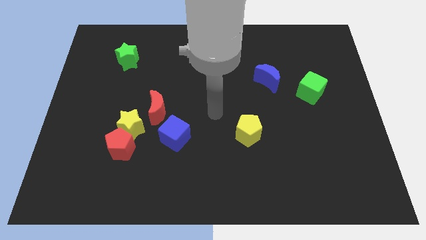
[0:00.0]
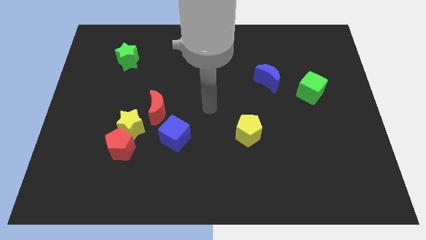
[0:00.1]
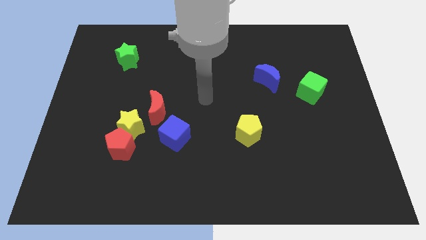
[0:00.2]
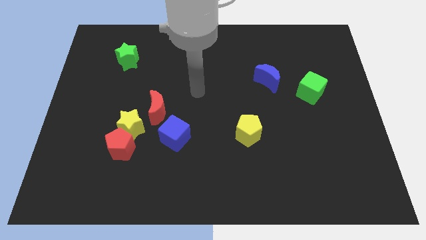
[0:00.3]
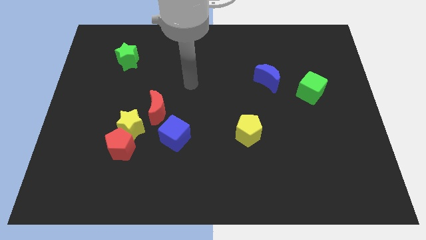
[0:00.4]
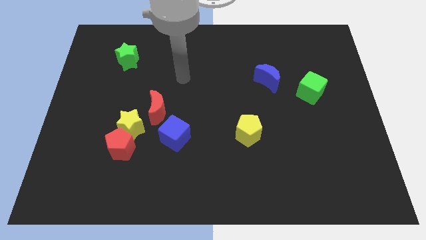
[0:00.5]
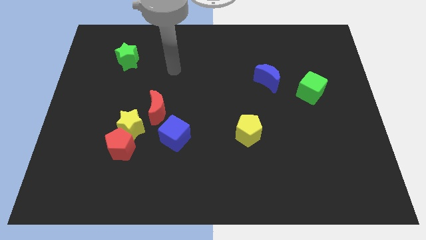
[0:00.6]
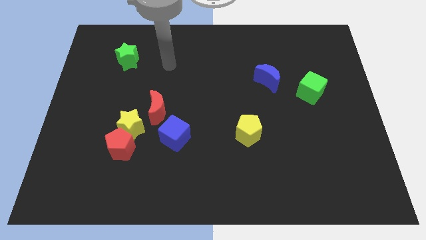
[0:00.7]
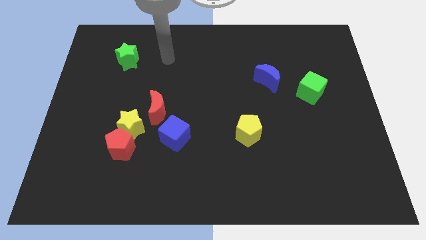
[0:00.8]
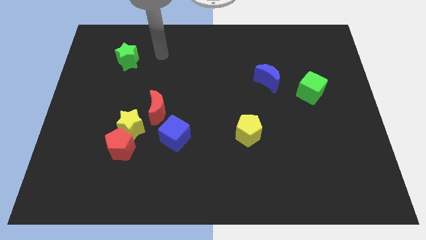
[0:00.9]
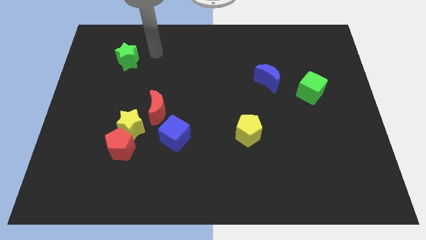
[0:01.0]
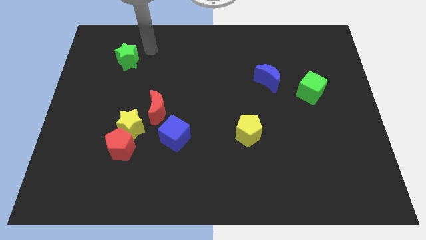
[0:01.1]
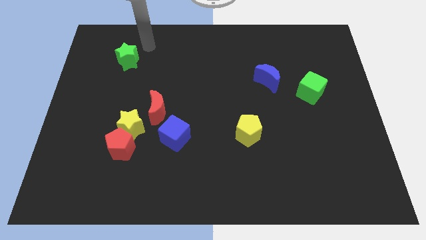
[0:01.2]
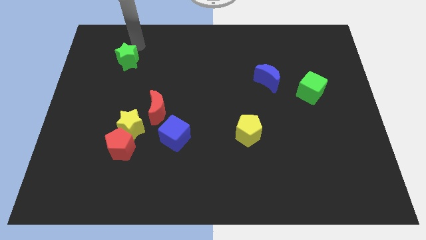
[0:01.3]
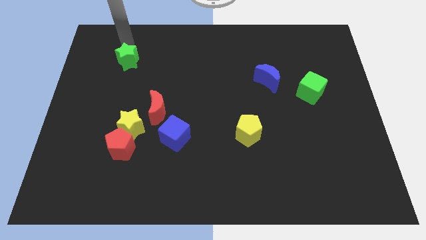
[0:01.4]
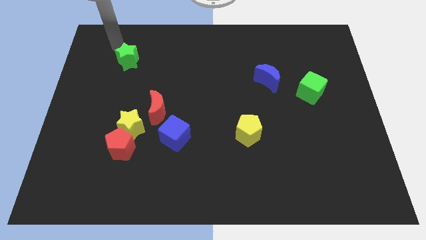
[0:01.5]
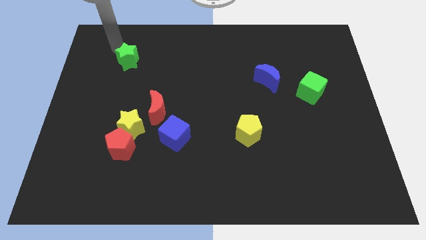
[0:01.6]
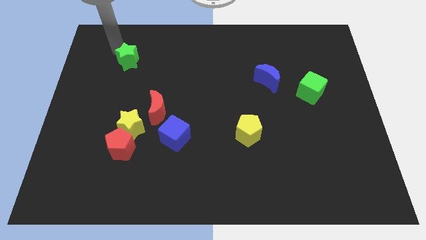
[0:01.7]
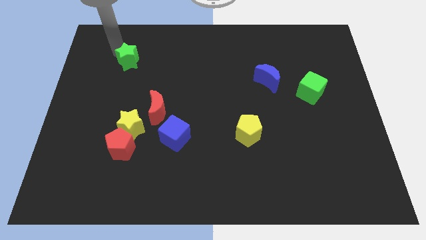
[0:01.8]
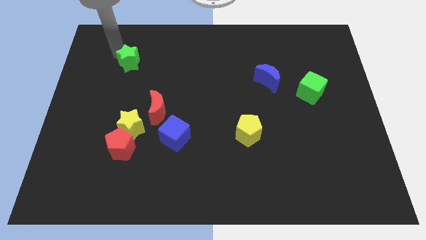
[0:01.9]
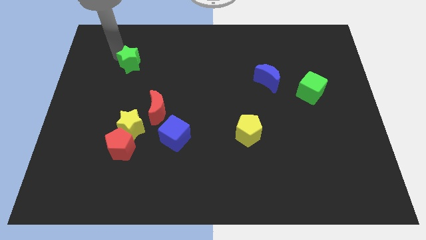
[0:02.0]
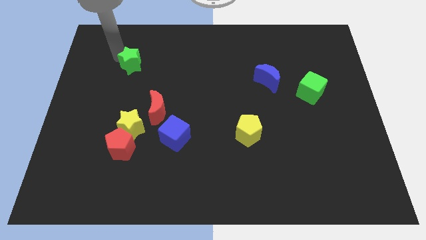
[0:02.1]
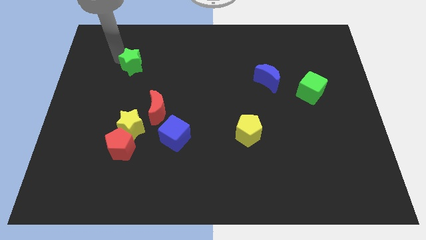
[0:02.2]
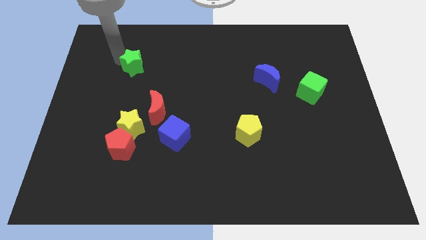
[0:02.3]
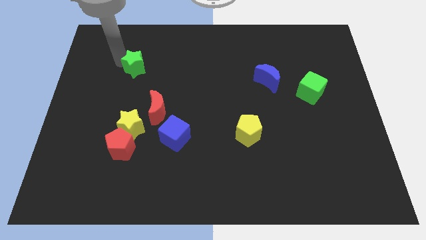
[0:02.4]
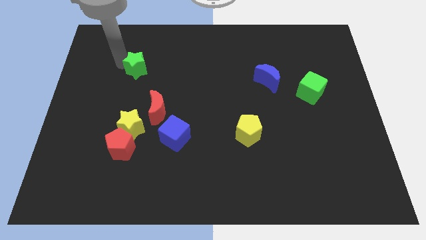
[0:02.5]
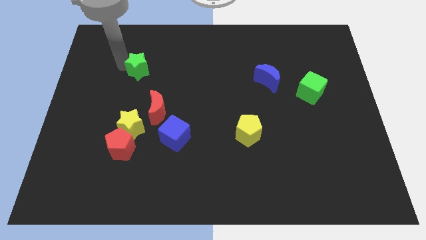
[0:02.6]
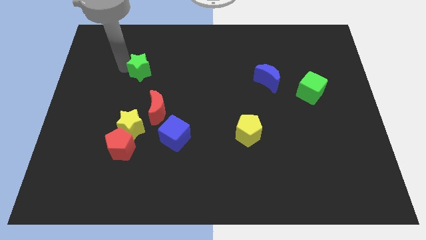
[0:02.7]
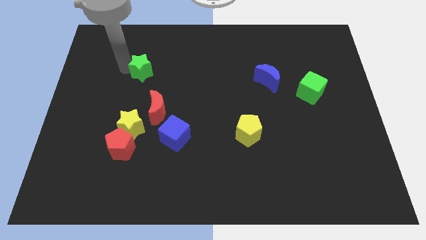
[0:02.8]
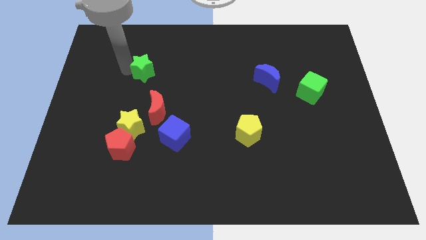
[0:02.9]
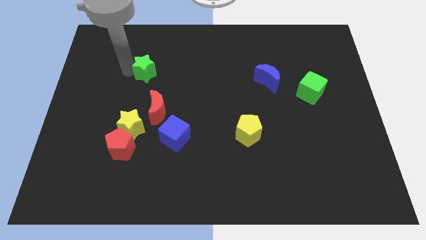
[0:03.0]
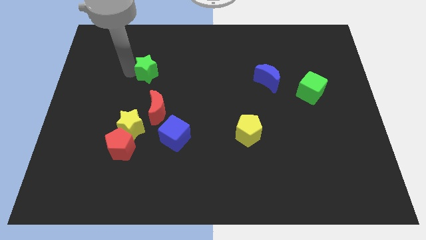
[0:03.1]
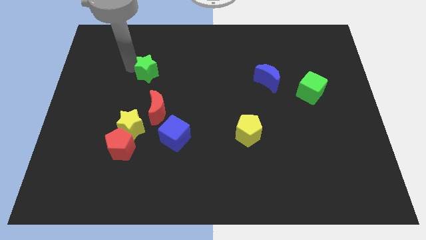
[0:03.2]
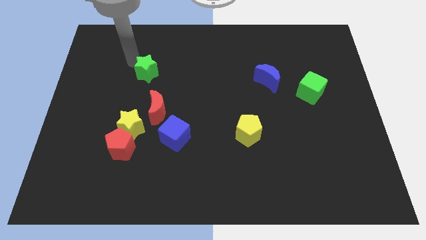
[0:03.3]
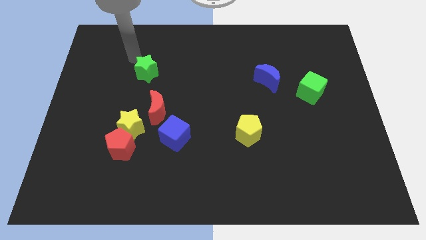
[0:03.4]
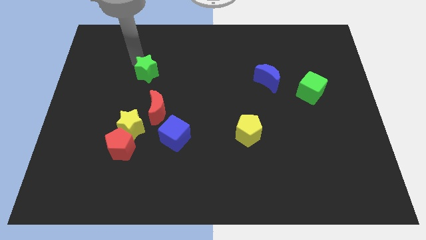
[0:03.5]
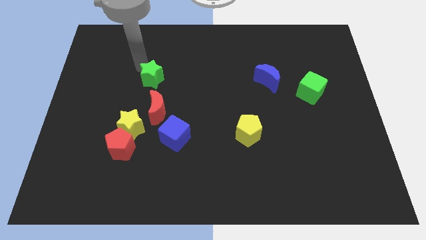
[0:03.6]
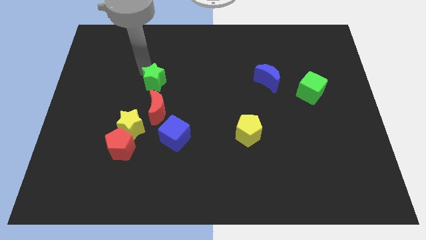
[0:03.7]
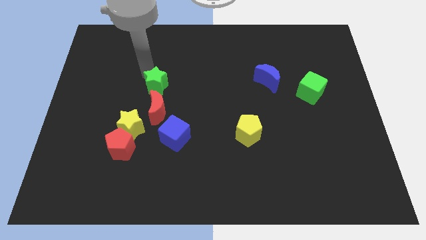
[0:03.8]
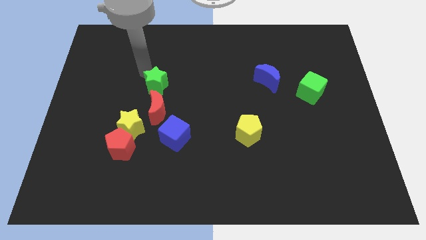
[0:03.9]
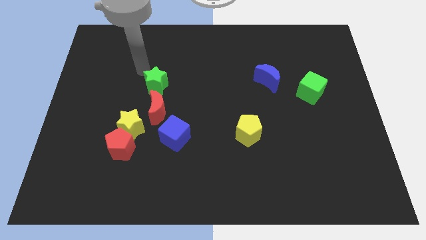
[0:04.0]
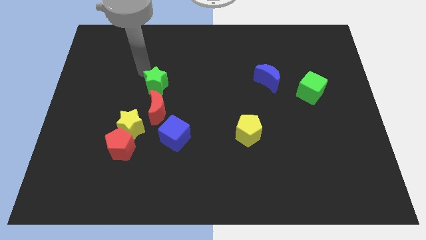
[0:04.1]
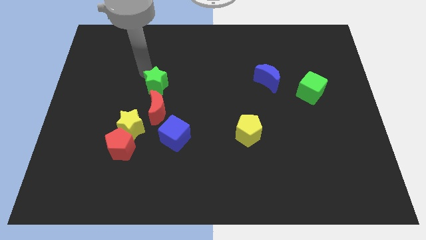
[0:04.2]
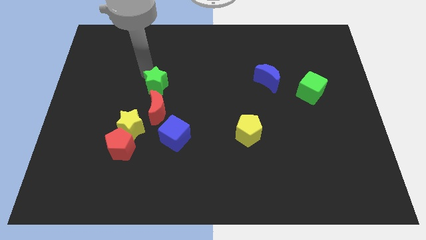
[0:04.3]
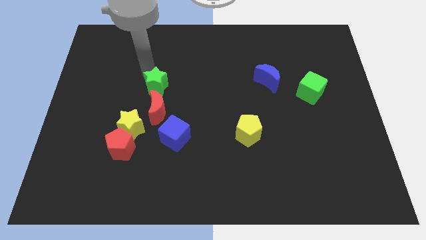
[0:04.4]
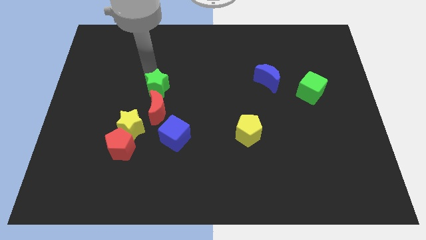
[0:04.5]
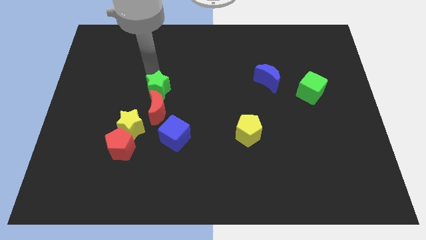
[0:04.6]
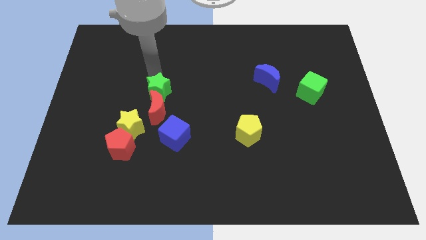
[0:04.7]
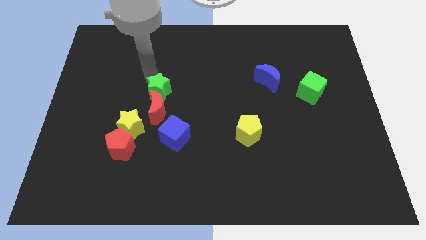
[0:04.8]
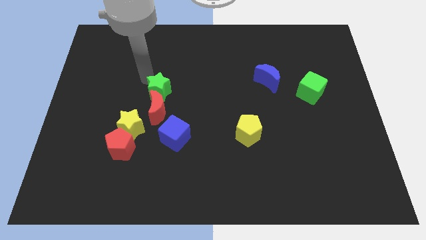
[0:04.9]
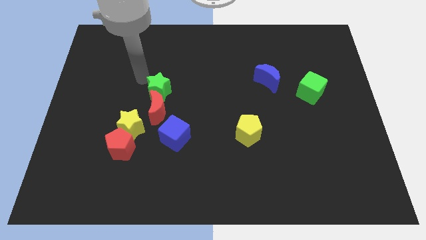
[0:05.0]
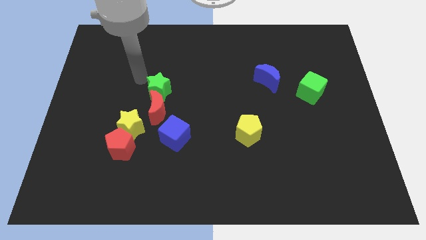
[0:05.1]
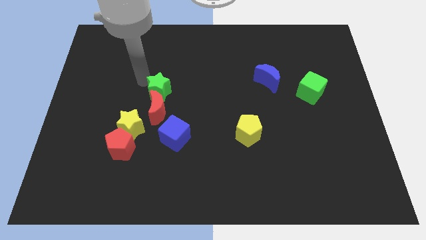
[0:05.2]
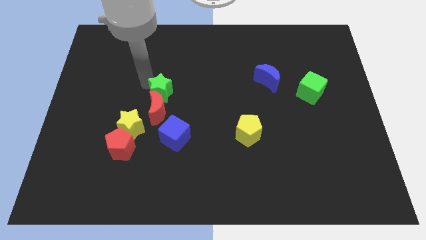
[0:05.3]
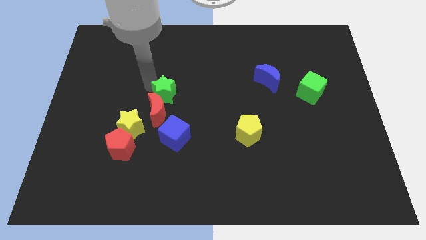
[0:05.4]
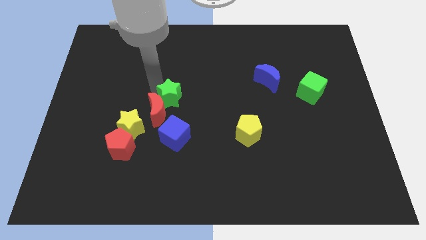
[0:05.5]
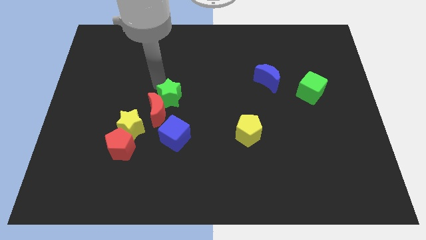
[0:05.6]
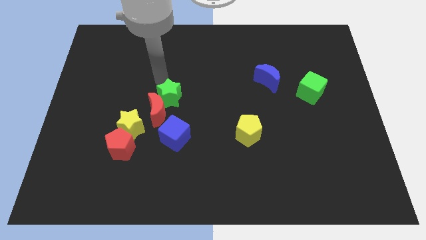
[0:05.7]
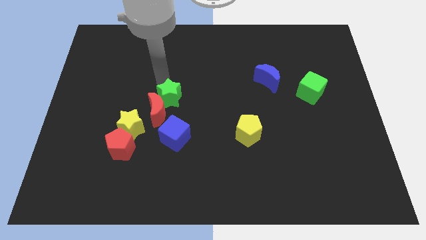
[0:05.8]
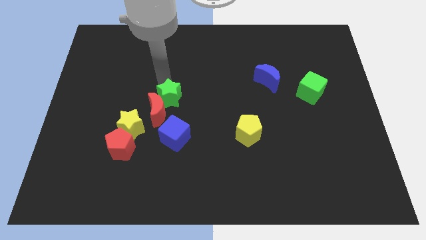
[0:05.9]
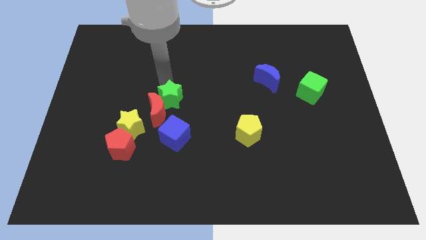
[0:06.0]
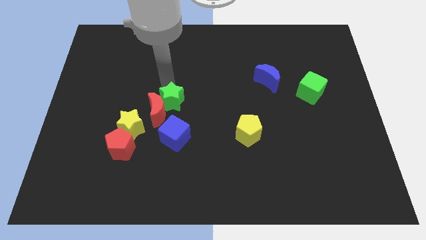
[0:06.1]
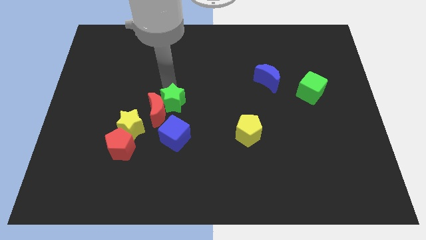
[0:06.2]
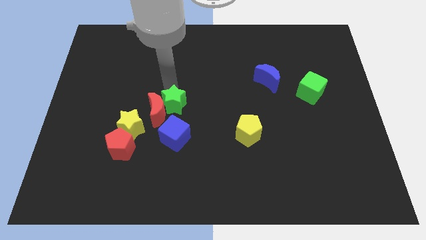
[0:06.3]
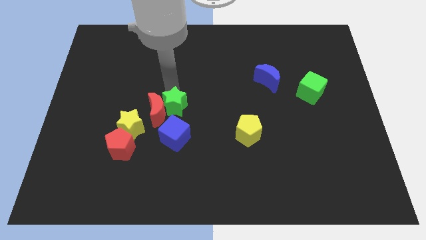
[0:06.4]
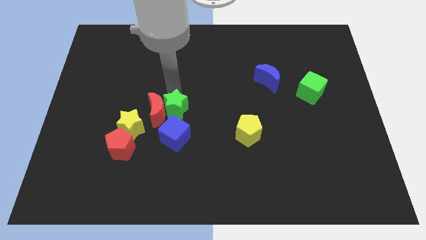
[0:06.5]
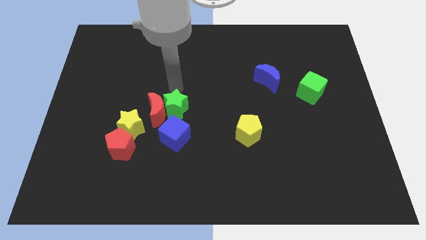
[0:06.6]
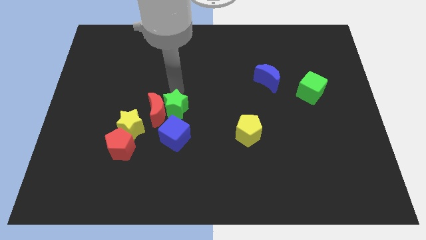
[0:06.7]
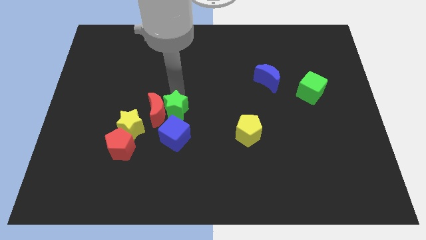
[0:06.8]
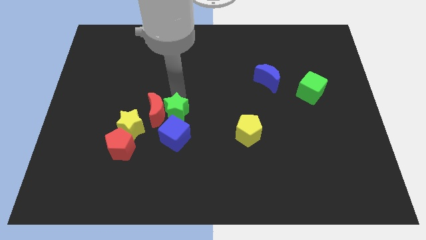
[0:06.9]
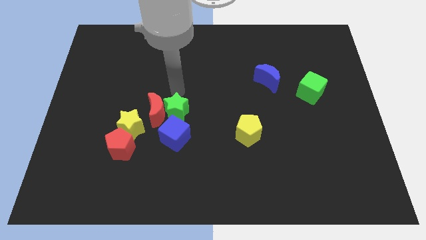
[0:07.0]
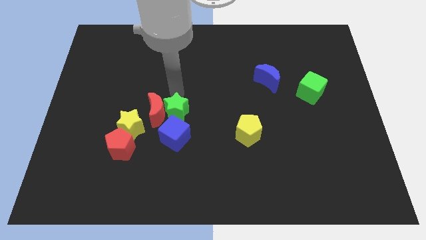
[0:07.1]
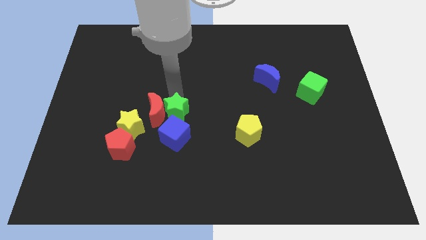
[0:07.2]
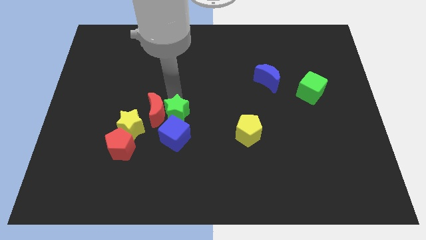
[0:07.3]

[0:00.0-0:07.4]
put the green star to the blue cube

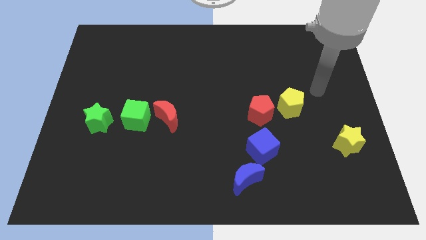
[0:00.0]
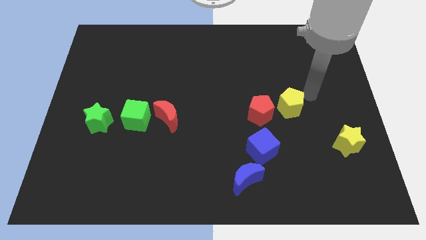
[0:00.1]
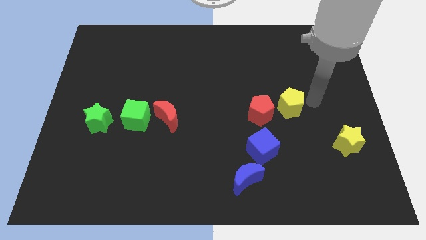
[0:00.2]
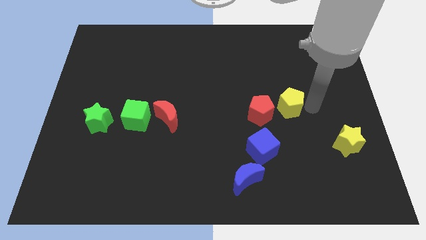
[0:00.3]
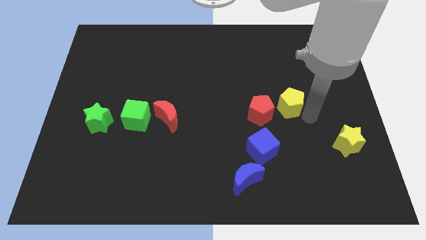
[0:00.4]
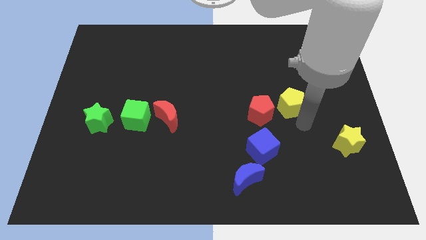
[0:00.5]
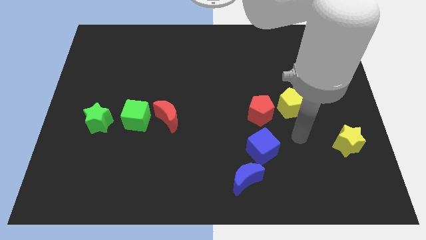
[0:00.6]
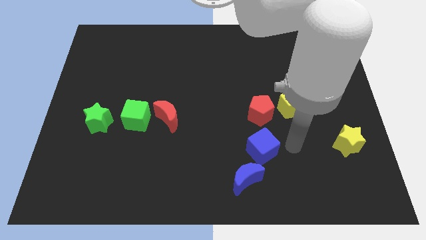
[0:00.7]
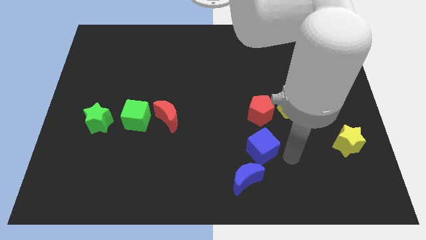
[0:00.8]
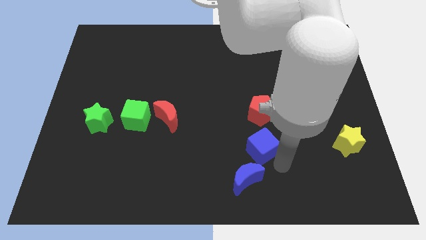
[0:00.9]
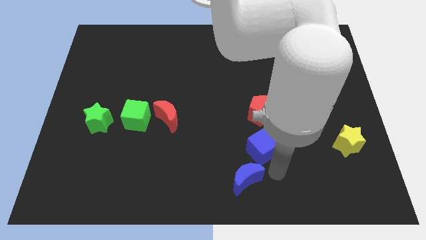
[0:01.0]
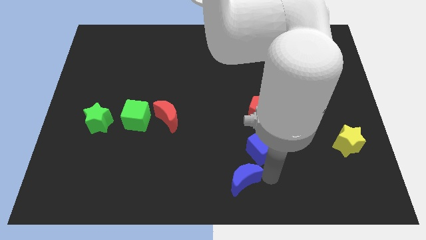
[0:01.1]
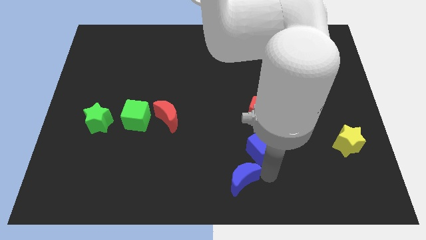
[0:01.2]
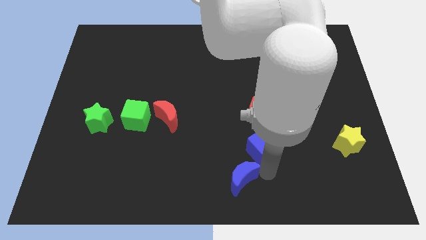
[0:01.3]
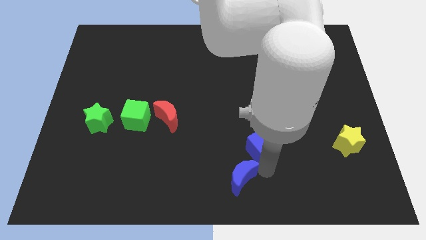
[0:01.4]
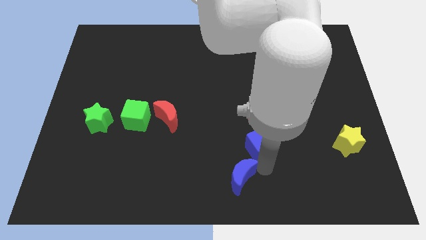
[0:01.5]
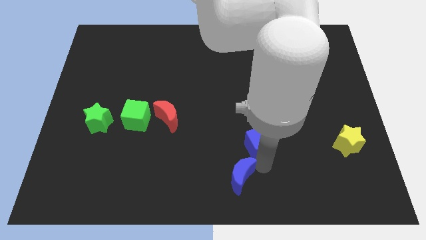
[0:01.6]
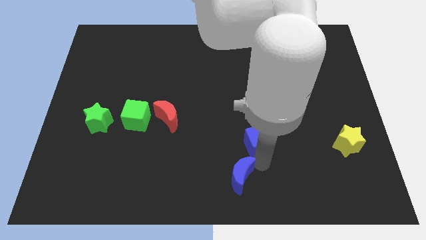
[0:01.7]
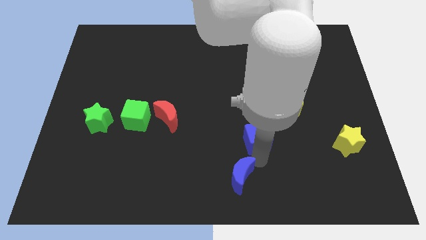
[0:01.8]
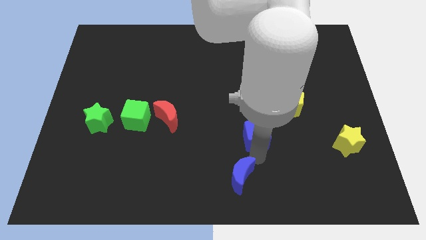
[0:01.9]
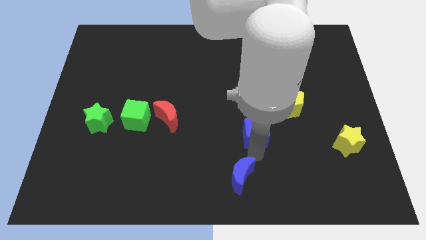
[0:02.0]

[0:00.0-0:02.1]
put the blue cube next to the red pentagon
